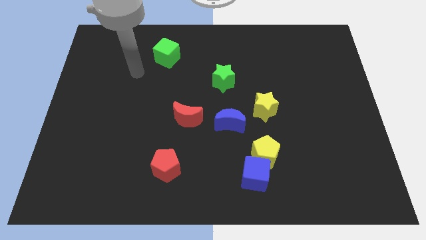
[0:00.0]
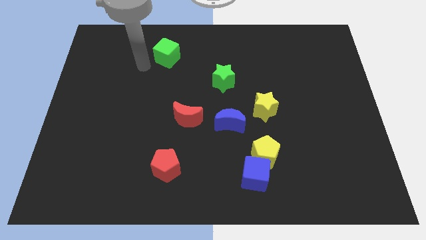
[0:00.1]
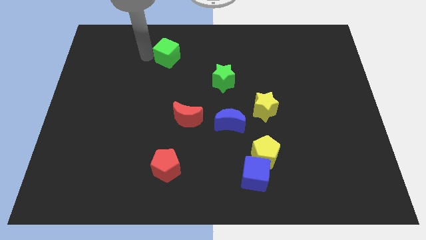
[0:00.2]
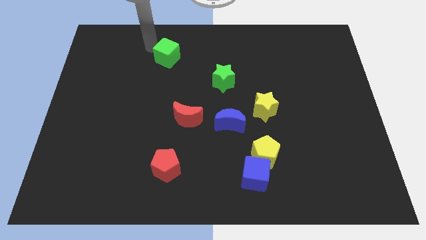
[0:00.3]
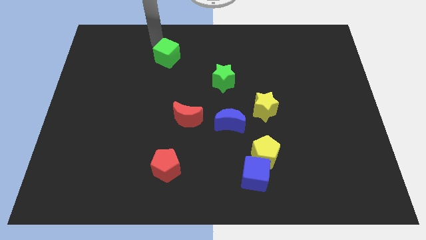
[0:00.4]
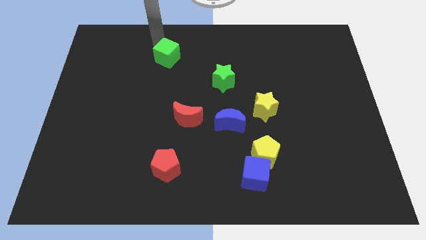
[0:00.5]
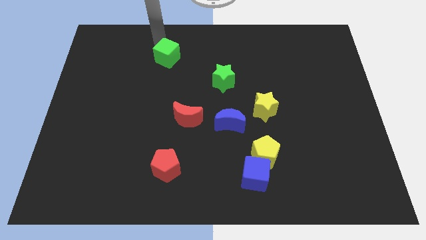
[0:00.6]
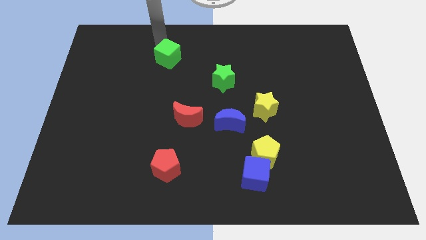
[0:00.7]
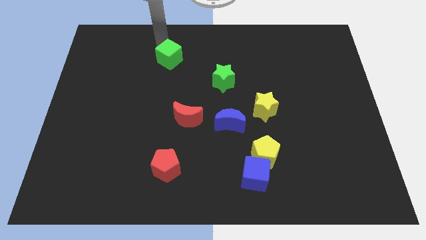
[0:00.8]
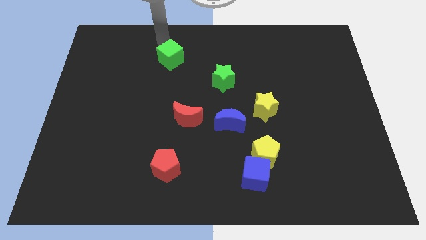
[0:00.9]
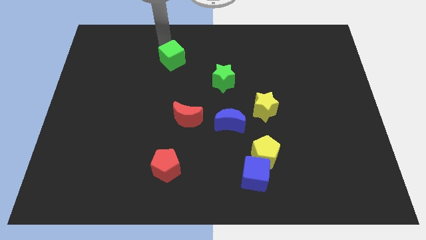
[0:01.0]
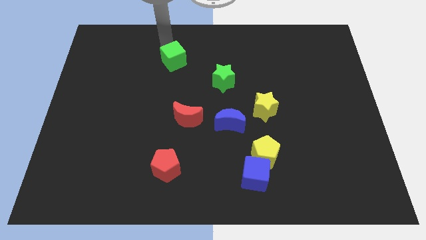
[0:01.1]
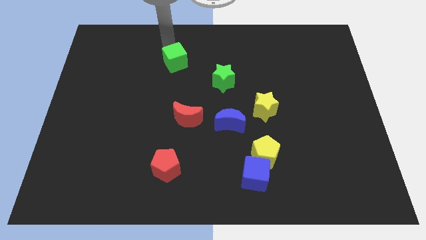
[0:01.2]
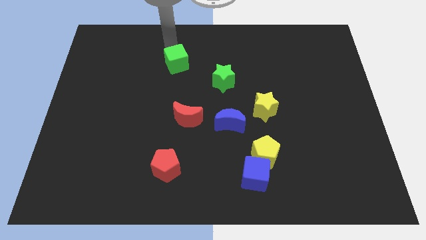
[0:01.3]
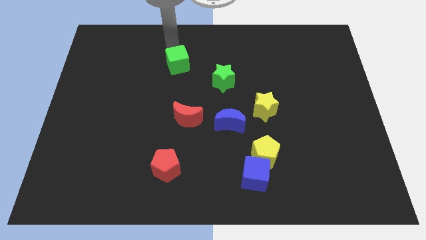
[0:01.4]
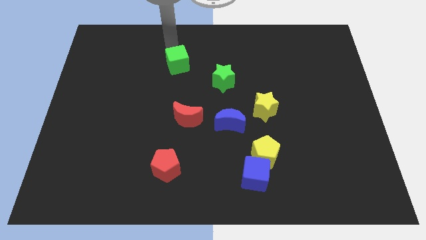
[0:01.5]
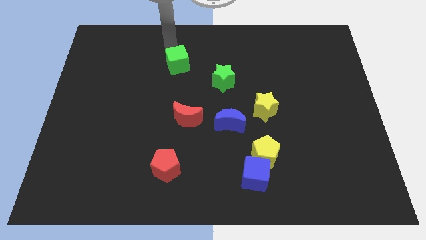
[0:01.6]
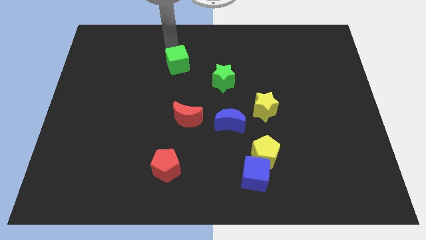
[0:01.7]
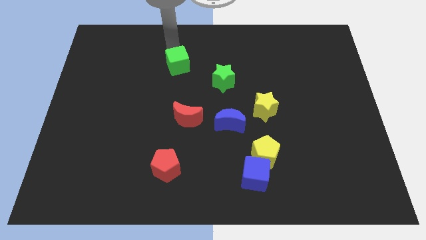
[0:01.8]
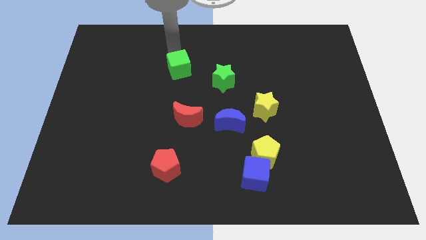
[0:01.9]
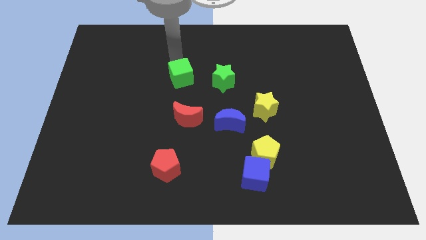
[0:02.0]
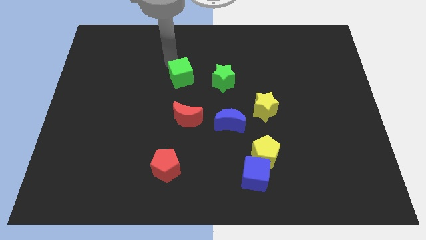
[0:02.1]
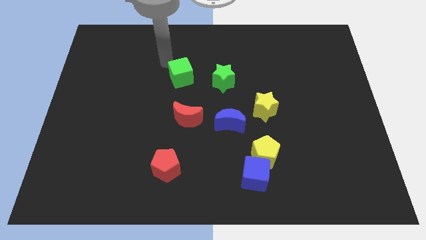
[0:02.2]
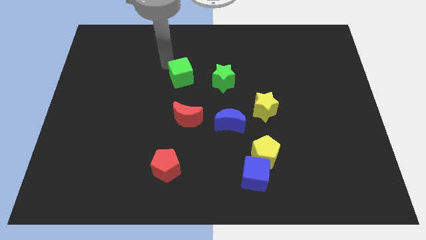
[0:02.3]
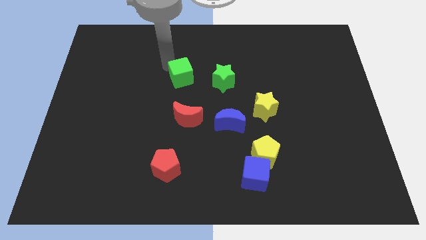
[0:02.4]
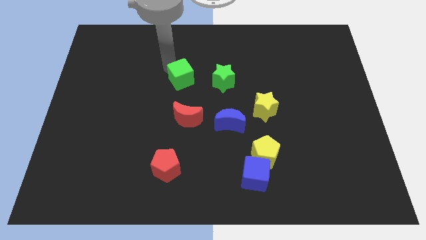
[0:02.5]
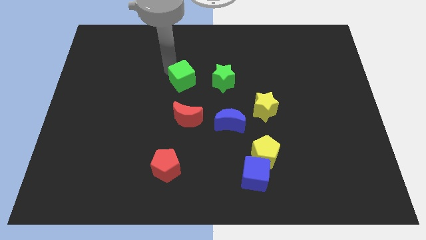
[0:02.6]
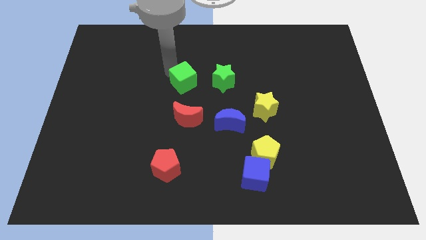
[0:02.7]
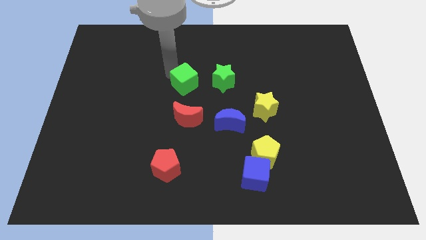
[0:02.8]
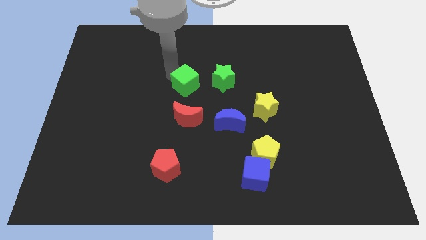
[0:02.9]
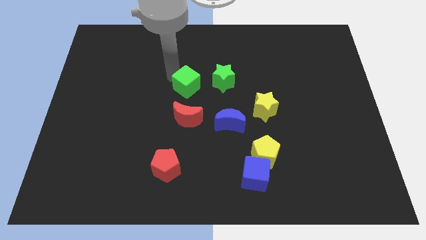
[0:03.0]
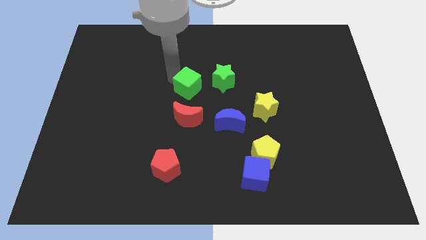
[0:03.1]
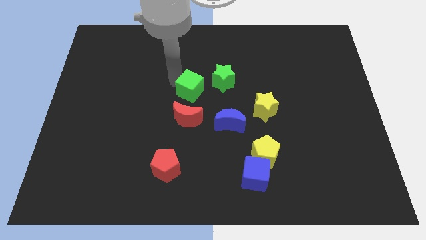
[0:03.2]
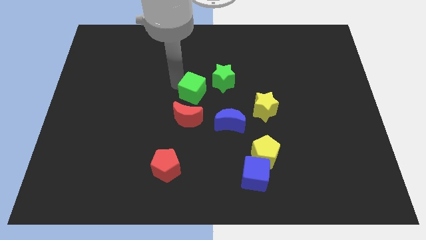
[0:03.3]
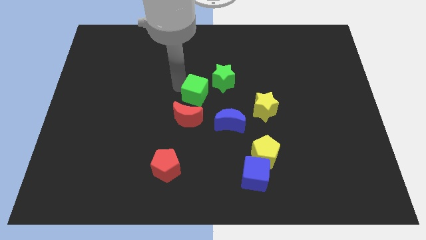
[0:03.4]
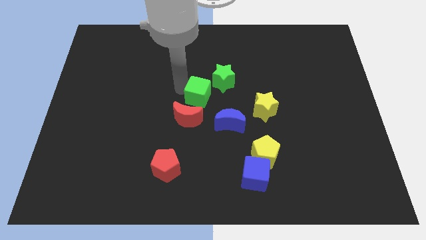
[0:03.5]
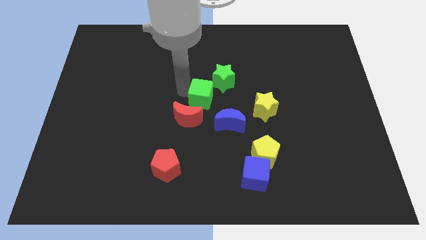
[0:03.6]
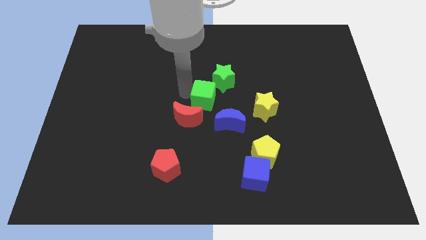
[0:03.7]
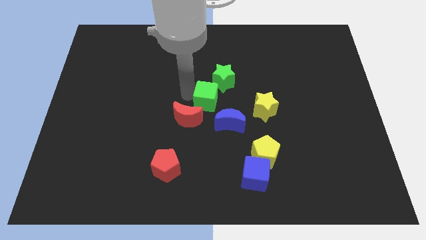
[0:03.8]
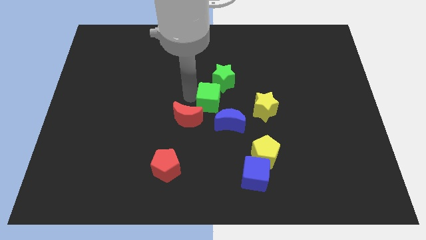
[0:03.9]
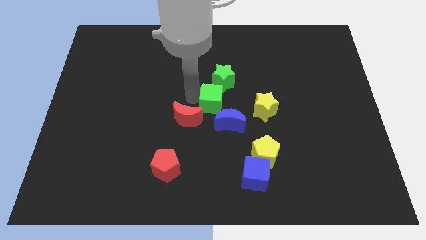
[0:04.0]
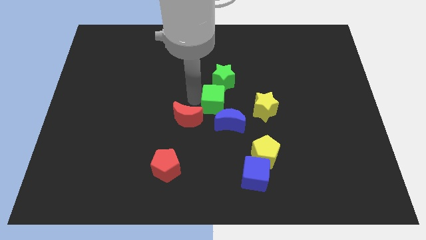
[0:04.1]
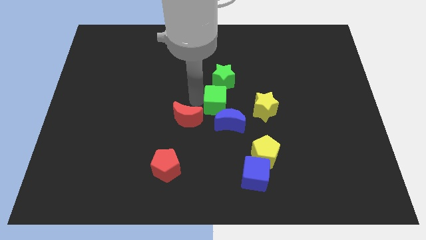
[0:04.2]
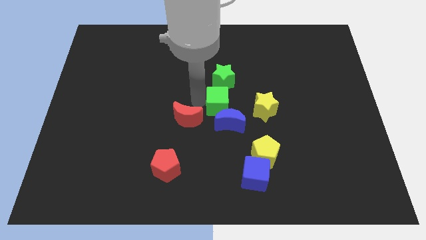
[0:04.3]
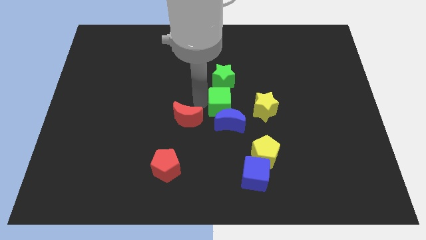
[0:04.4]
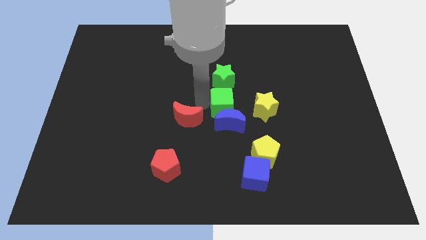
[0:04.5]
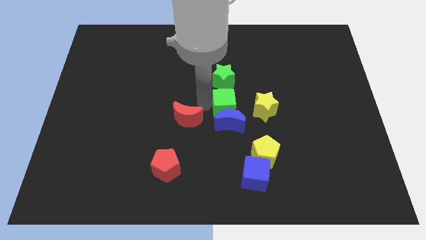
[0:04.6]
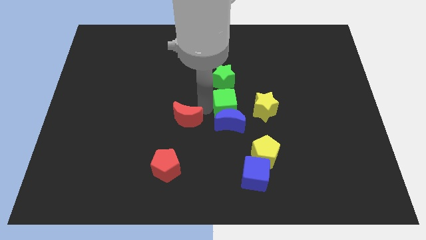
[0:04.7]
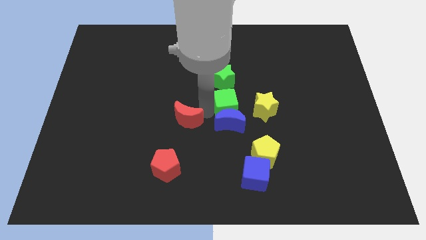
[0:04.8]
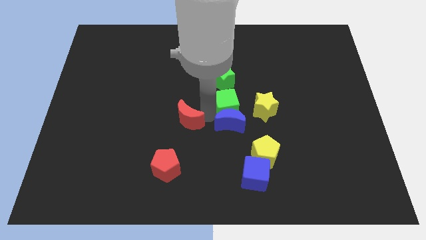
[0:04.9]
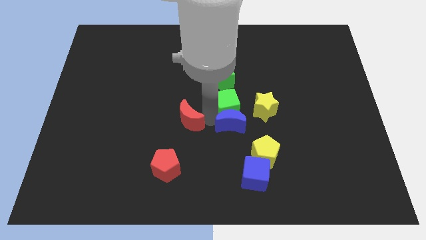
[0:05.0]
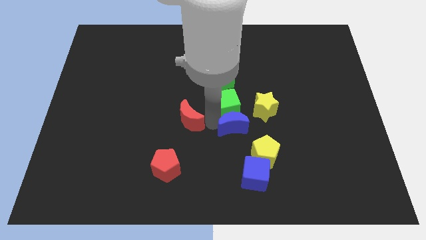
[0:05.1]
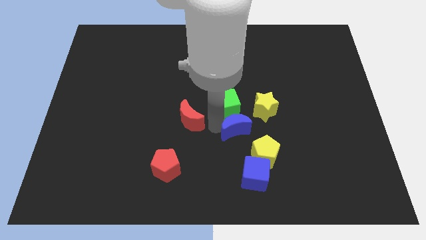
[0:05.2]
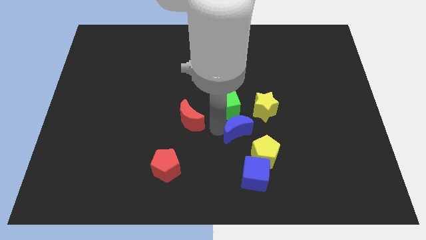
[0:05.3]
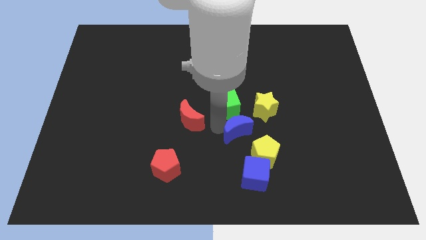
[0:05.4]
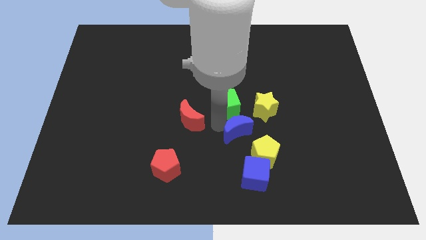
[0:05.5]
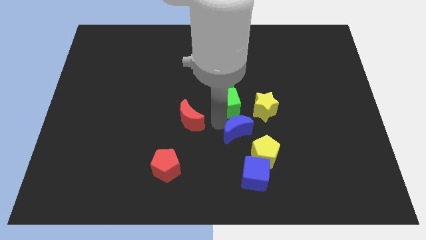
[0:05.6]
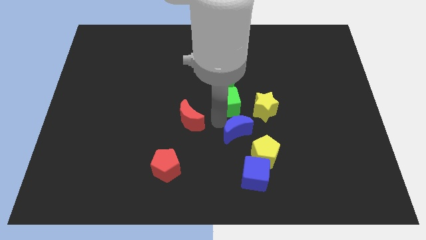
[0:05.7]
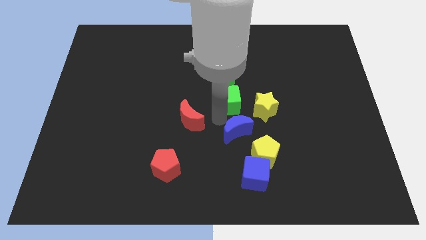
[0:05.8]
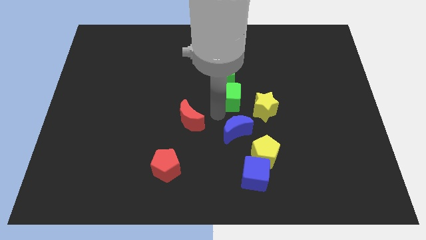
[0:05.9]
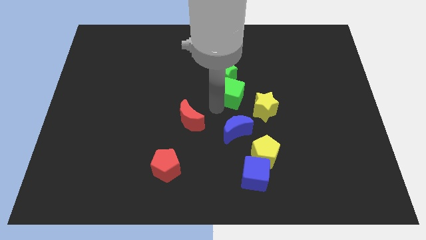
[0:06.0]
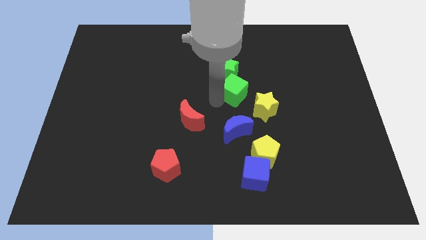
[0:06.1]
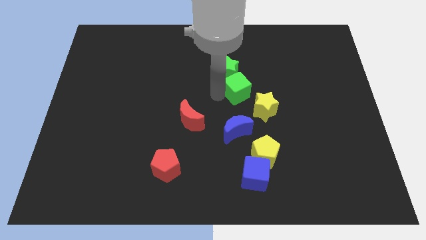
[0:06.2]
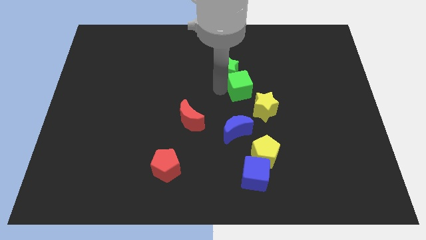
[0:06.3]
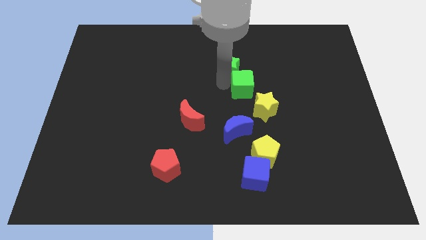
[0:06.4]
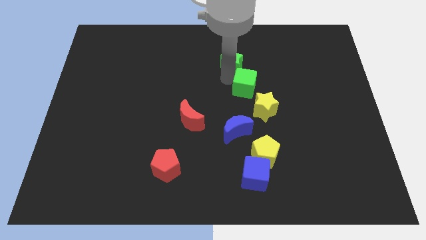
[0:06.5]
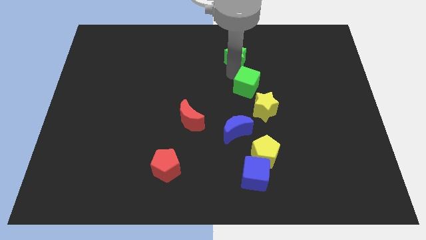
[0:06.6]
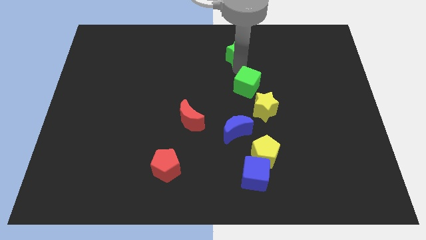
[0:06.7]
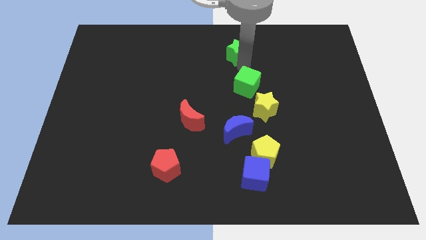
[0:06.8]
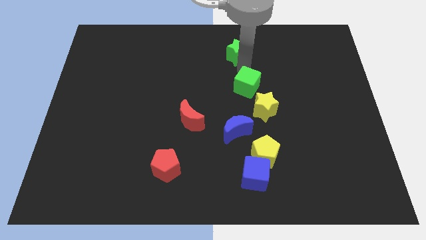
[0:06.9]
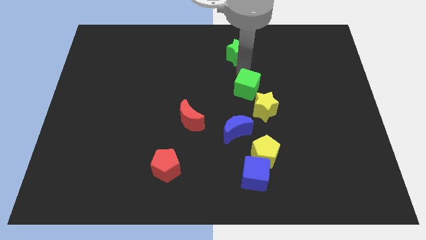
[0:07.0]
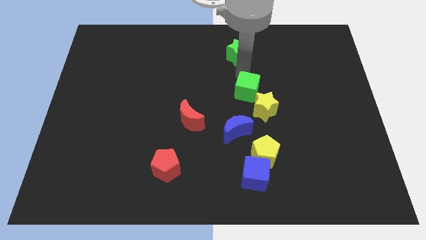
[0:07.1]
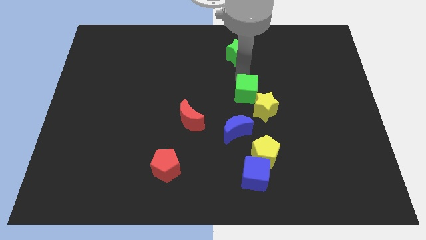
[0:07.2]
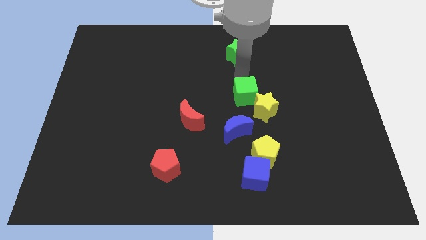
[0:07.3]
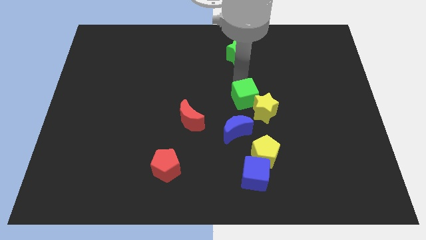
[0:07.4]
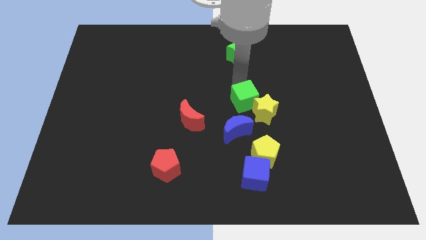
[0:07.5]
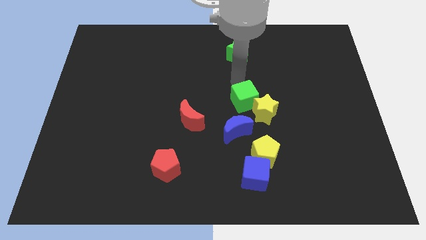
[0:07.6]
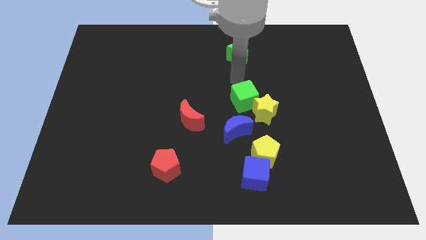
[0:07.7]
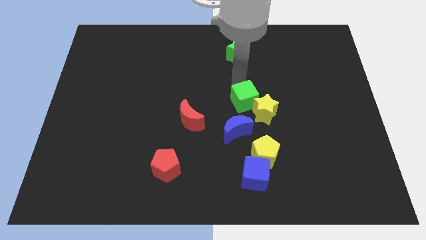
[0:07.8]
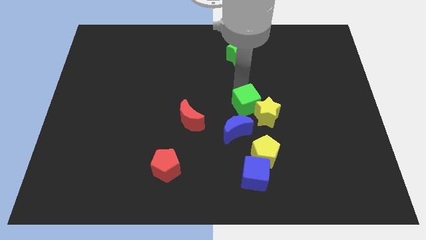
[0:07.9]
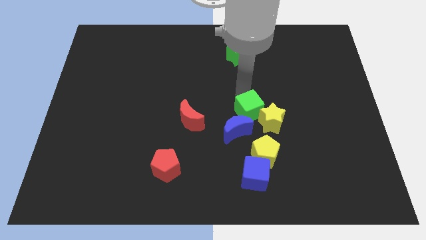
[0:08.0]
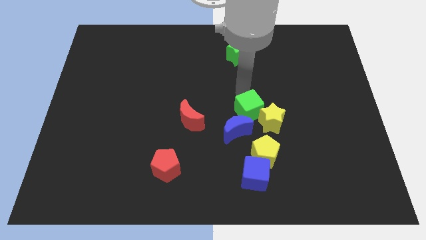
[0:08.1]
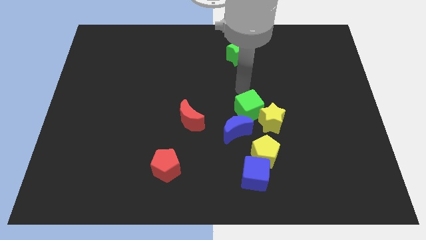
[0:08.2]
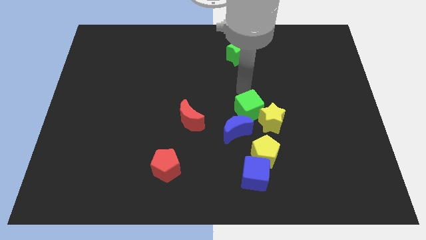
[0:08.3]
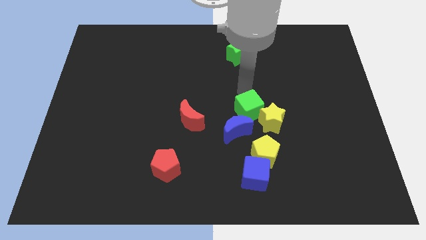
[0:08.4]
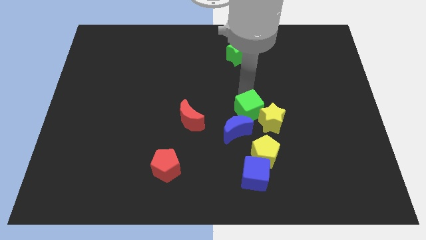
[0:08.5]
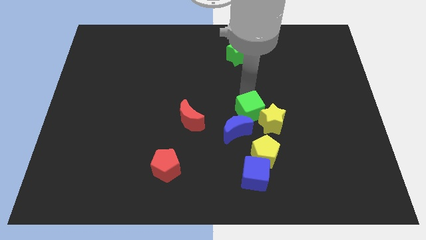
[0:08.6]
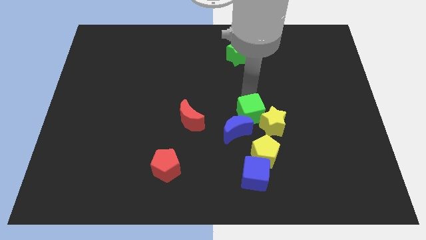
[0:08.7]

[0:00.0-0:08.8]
move the green cube to the top side of the blue cube
